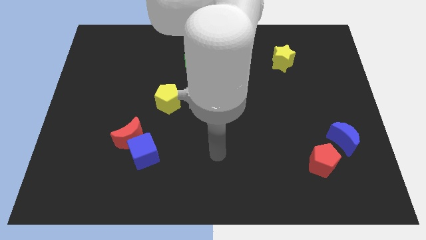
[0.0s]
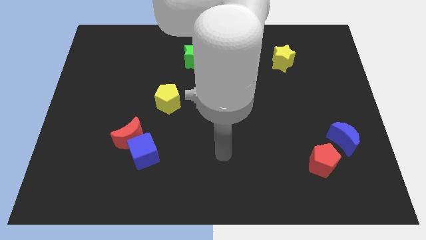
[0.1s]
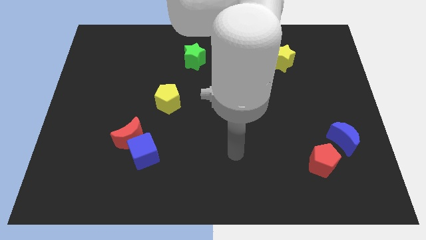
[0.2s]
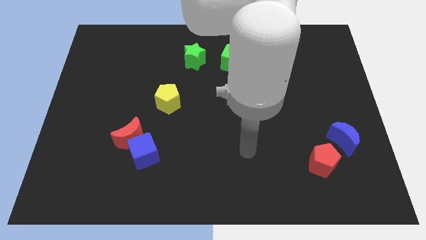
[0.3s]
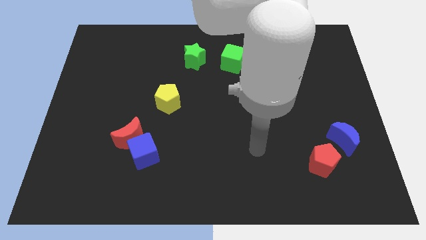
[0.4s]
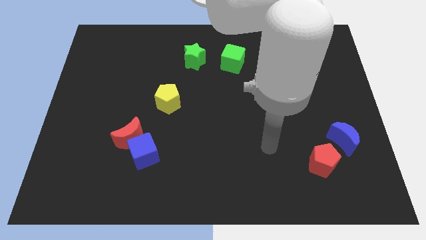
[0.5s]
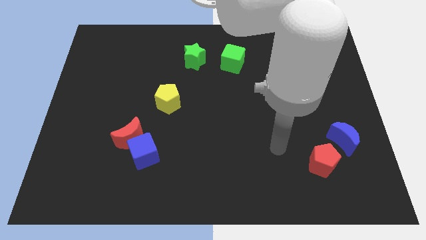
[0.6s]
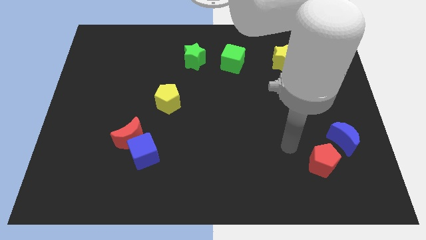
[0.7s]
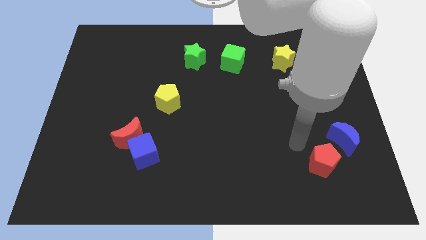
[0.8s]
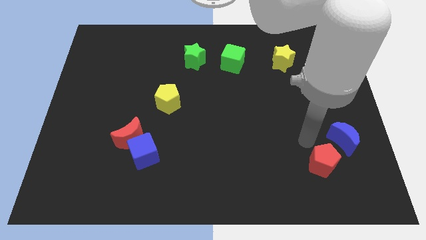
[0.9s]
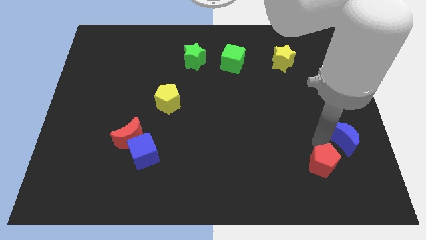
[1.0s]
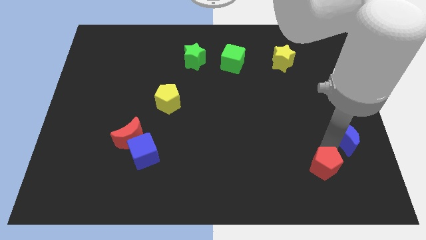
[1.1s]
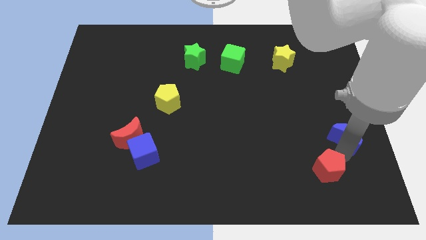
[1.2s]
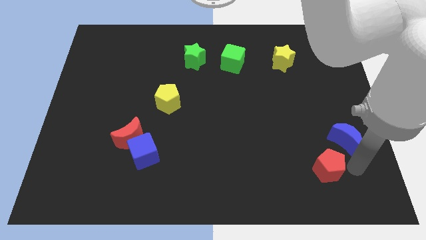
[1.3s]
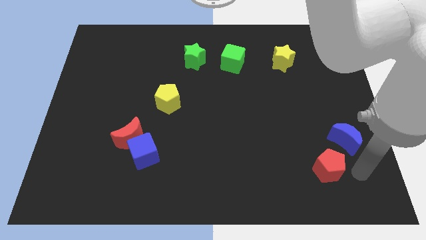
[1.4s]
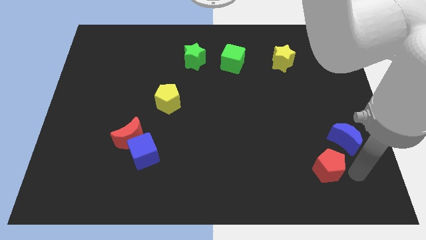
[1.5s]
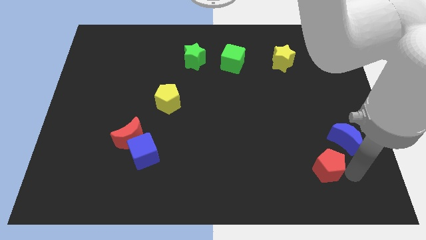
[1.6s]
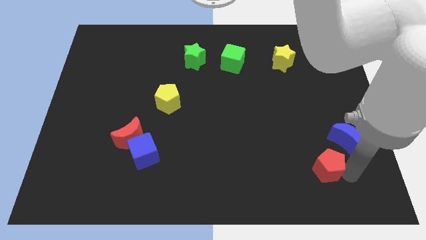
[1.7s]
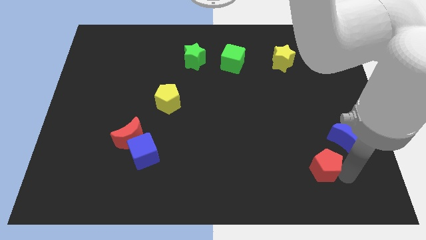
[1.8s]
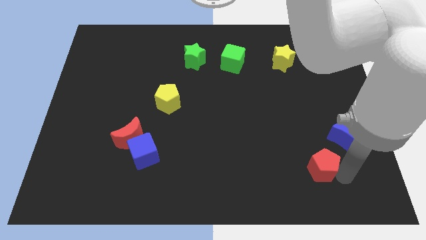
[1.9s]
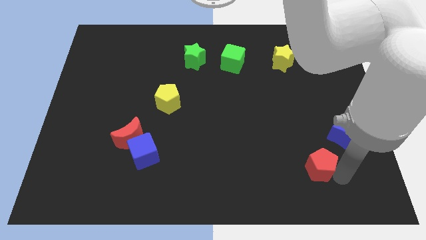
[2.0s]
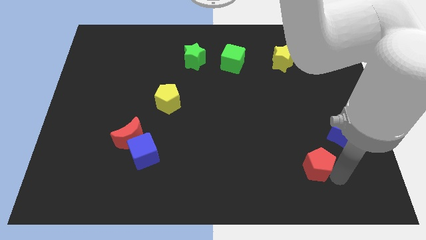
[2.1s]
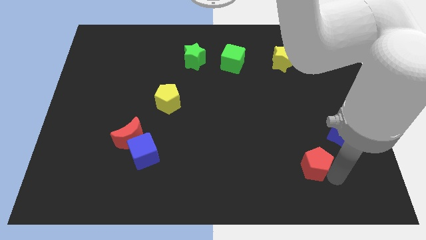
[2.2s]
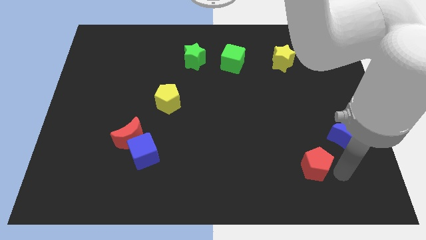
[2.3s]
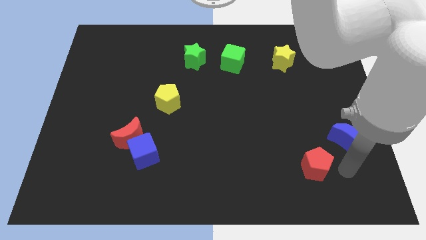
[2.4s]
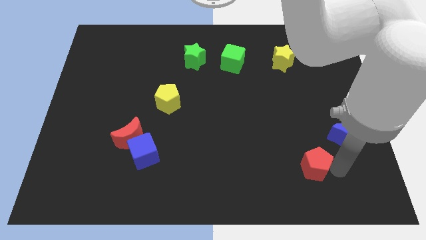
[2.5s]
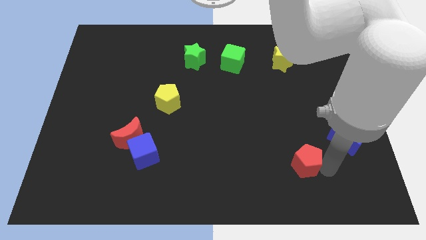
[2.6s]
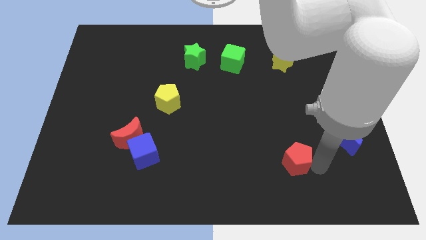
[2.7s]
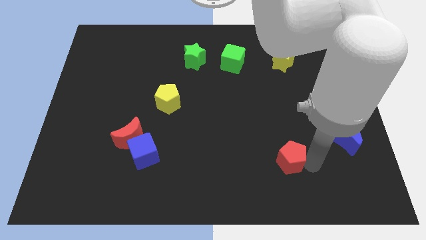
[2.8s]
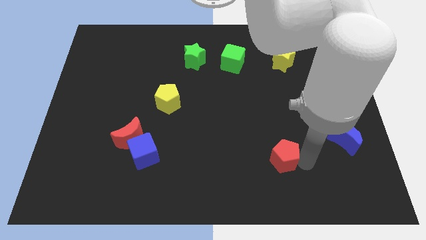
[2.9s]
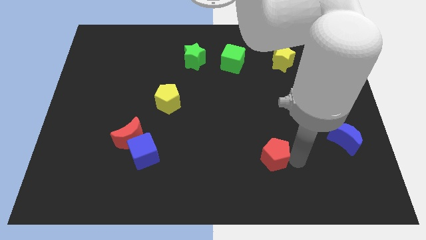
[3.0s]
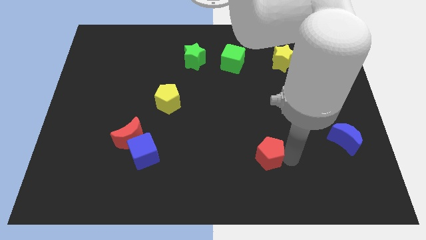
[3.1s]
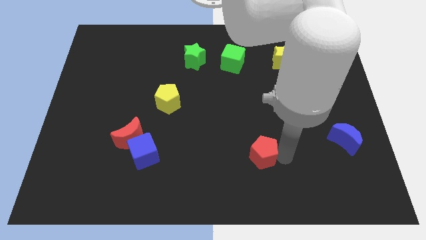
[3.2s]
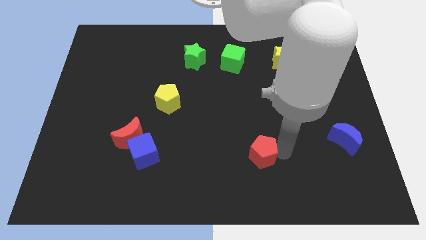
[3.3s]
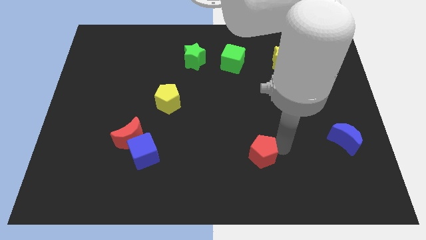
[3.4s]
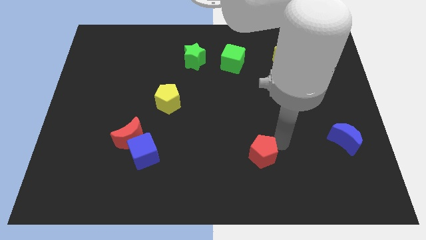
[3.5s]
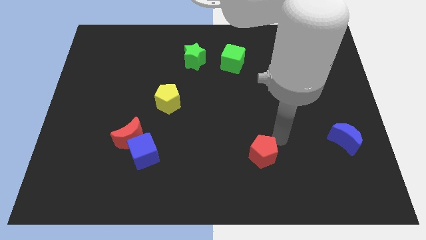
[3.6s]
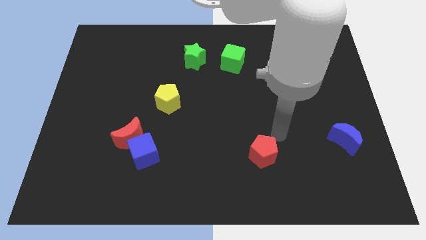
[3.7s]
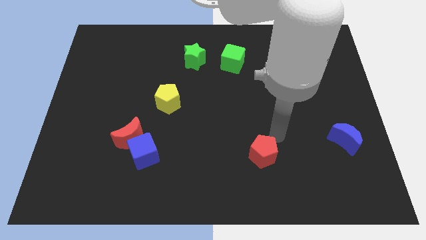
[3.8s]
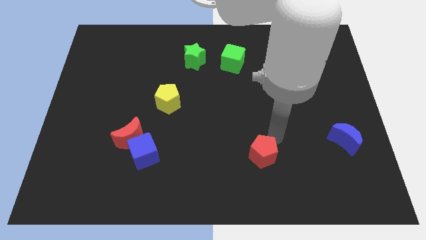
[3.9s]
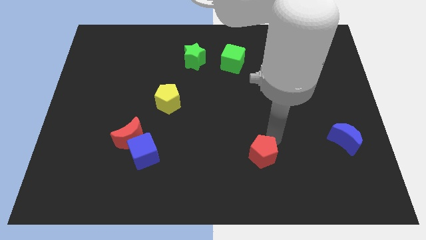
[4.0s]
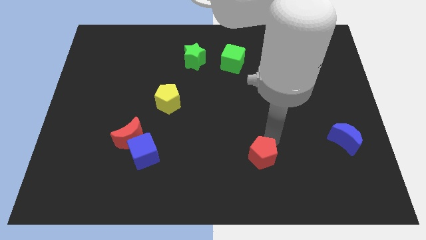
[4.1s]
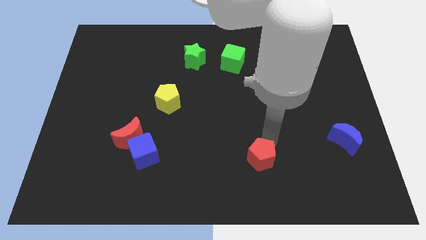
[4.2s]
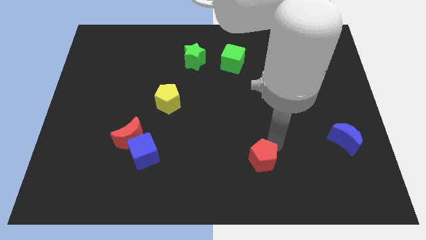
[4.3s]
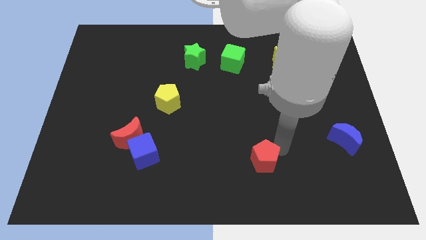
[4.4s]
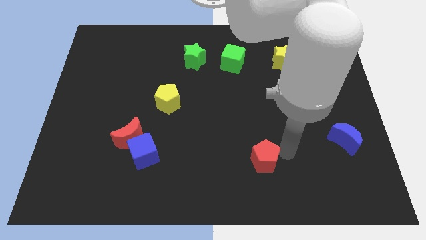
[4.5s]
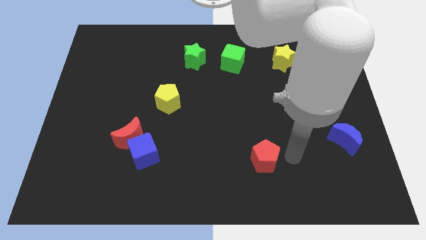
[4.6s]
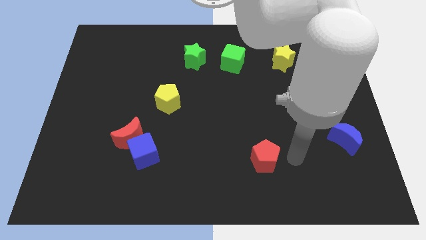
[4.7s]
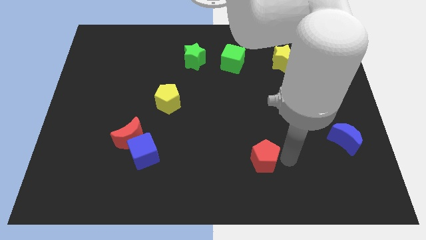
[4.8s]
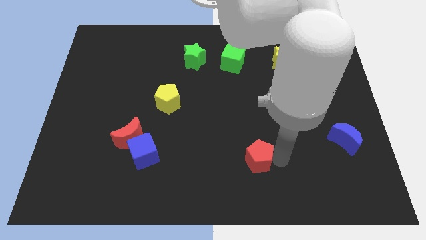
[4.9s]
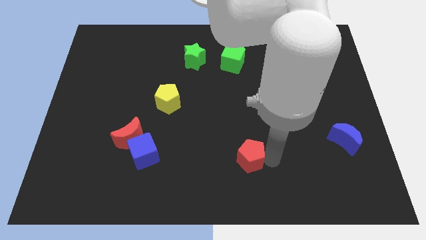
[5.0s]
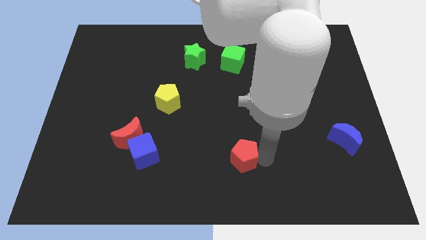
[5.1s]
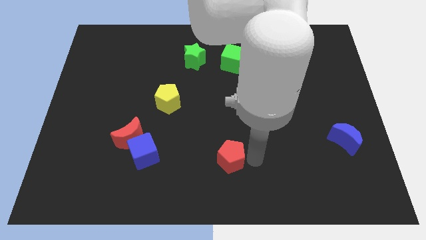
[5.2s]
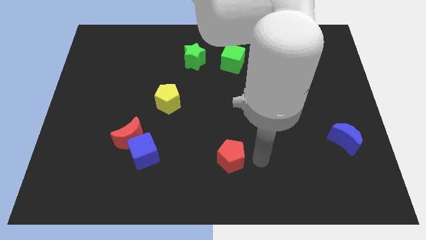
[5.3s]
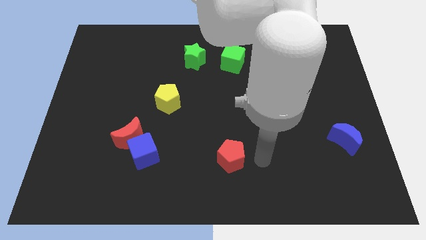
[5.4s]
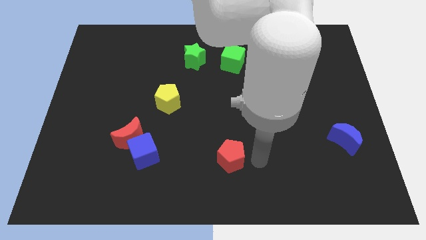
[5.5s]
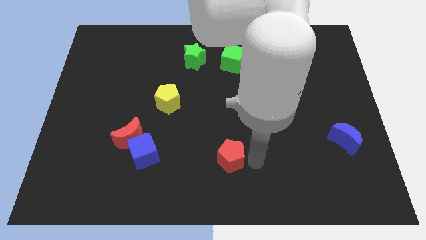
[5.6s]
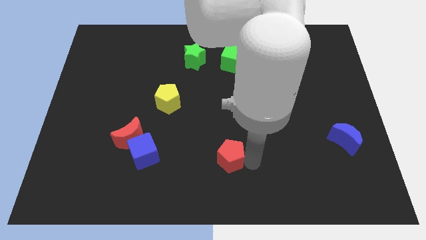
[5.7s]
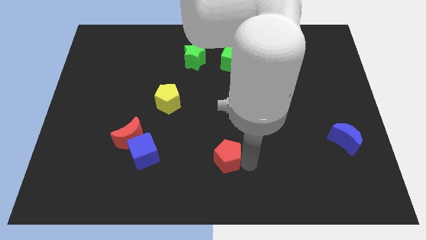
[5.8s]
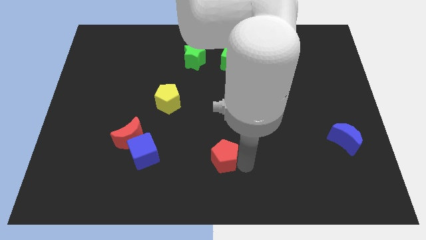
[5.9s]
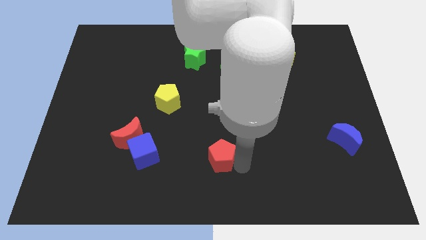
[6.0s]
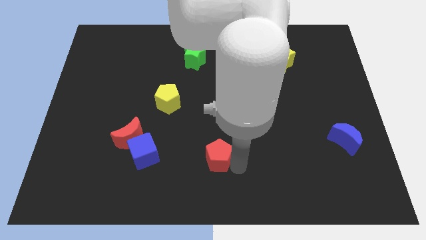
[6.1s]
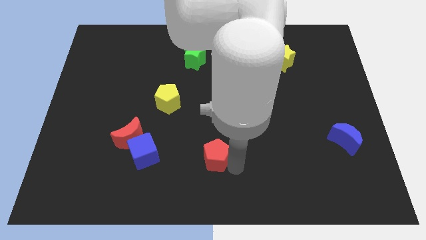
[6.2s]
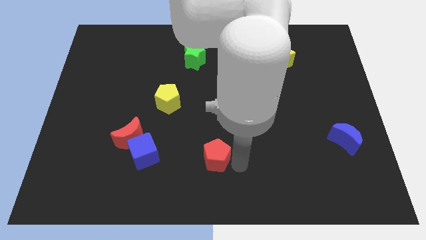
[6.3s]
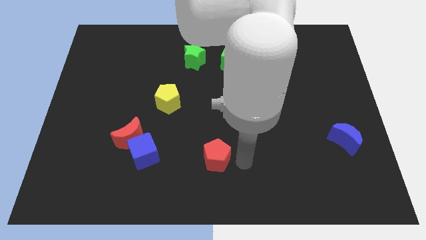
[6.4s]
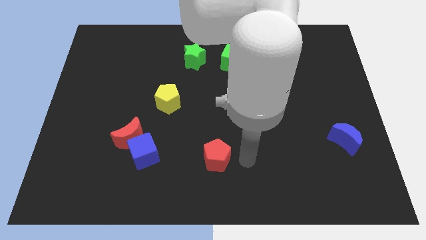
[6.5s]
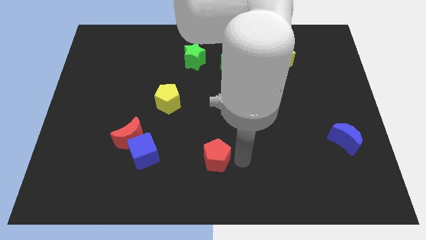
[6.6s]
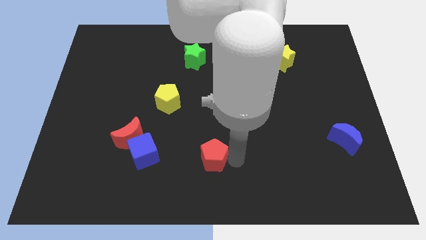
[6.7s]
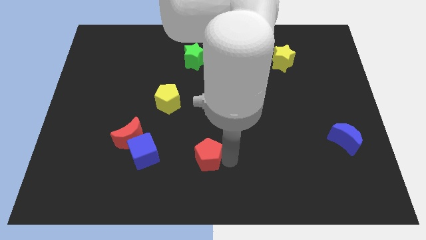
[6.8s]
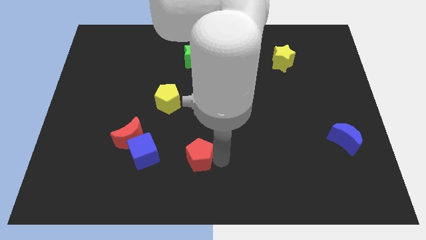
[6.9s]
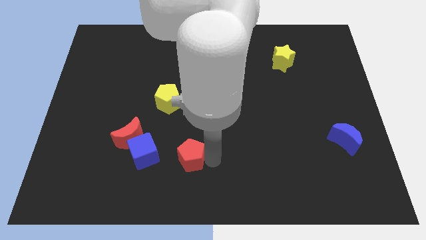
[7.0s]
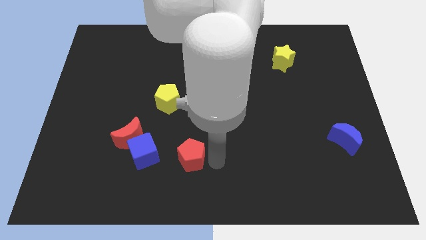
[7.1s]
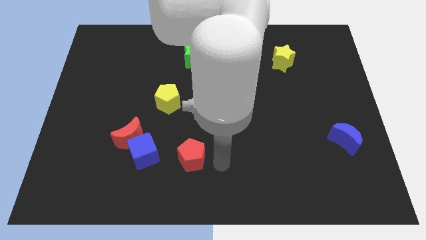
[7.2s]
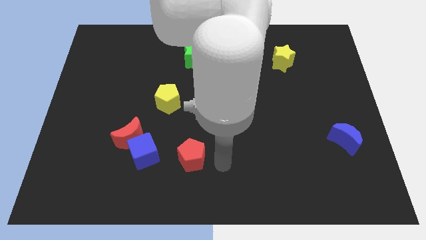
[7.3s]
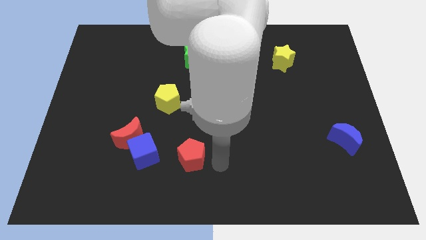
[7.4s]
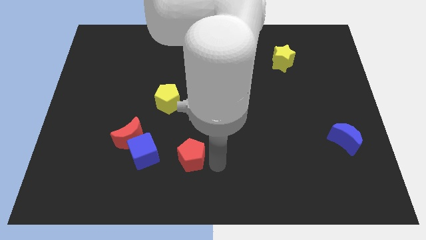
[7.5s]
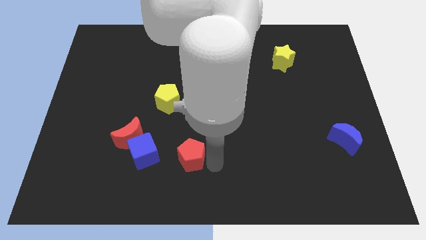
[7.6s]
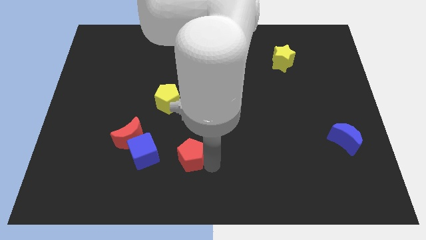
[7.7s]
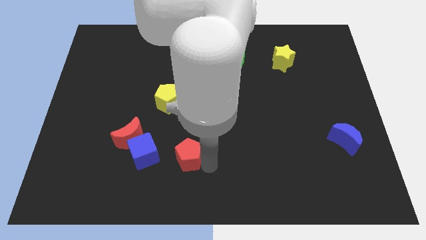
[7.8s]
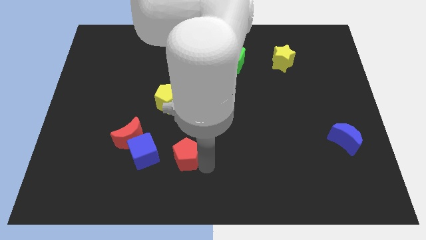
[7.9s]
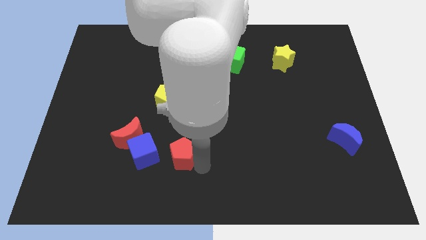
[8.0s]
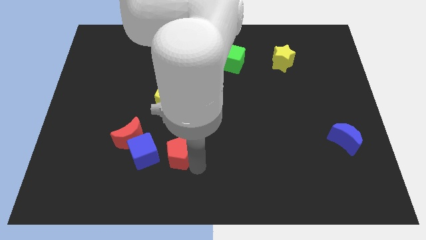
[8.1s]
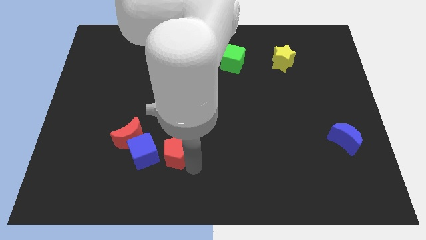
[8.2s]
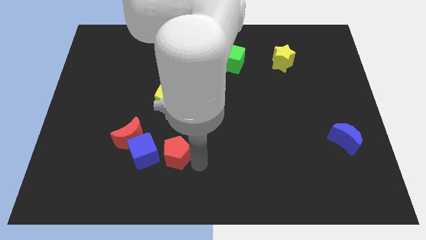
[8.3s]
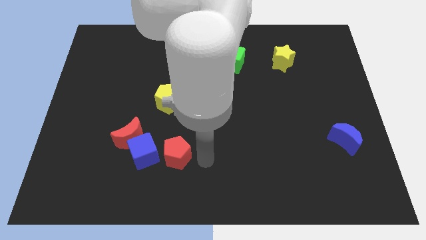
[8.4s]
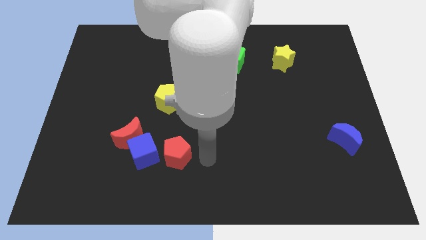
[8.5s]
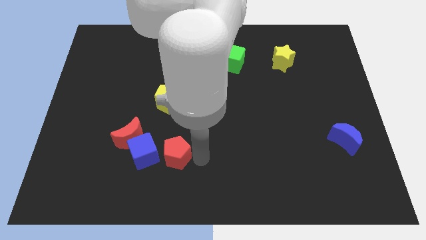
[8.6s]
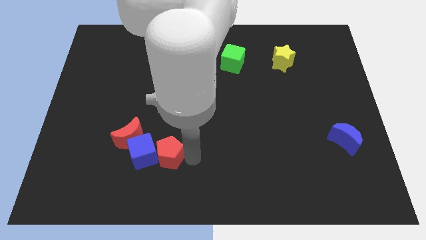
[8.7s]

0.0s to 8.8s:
slide the red pentagon next to the blue cube
